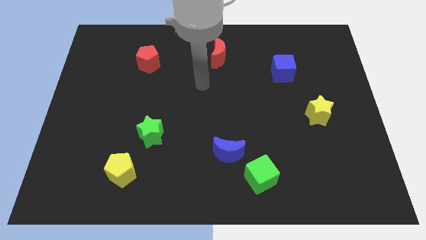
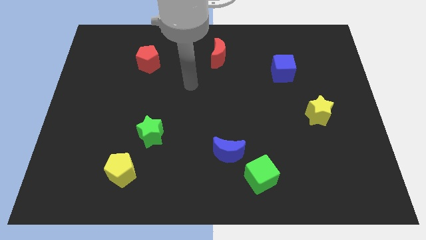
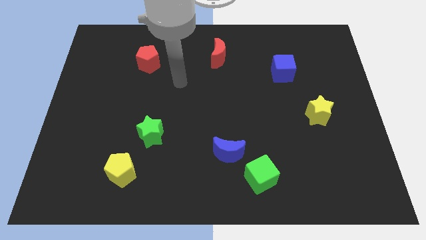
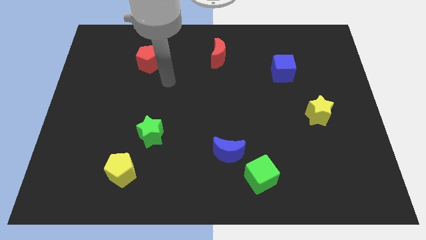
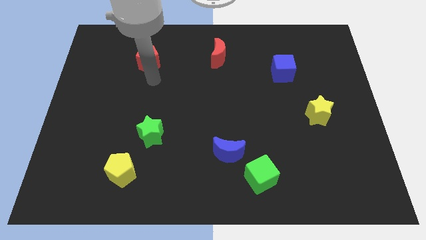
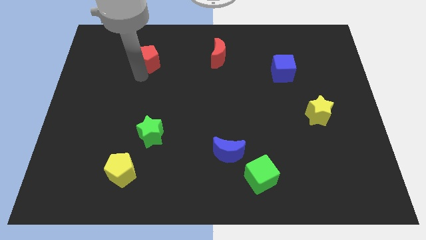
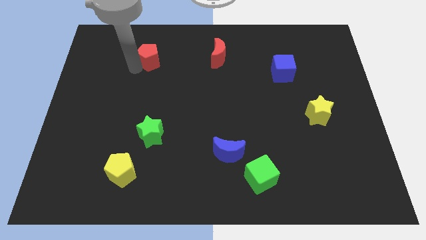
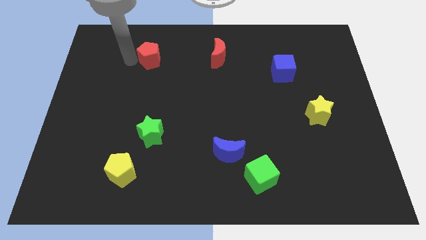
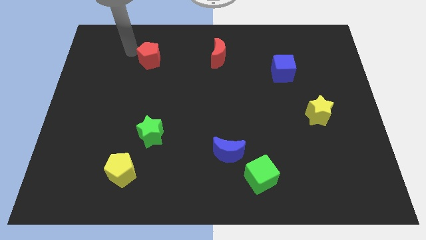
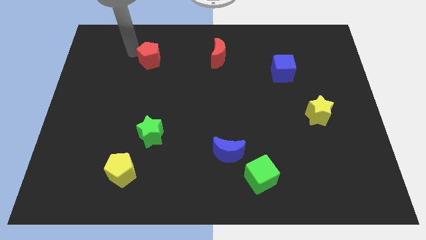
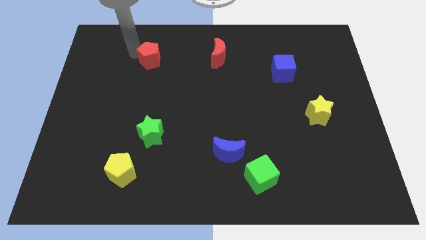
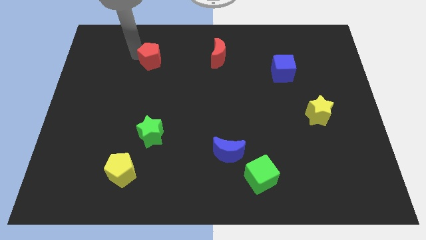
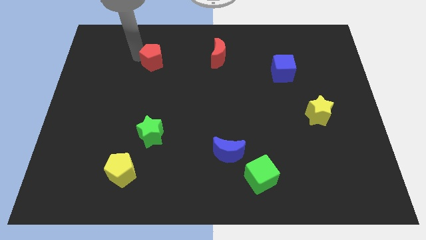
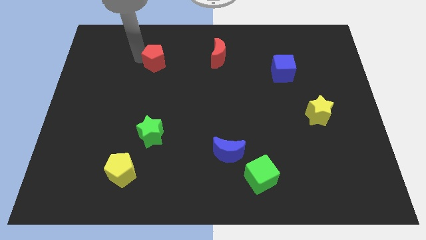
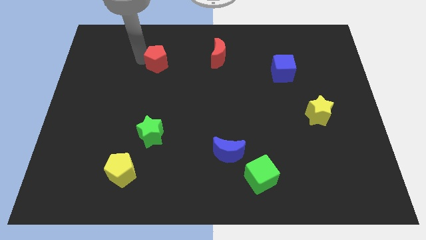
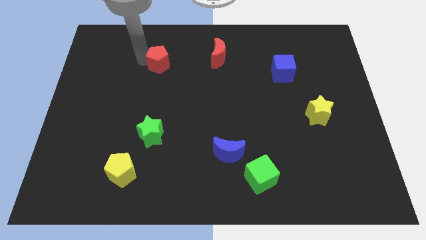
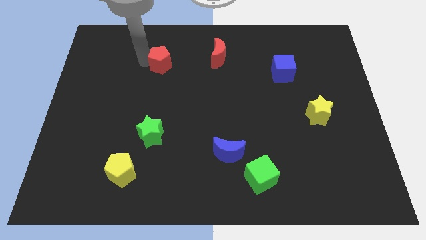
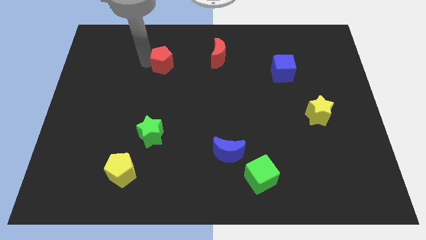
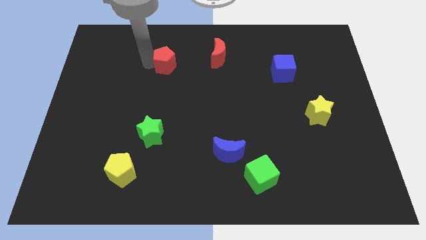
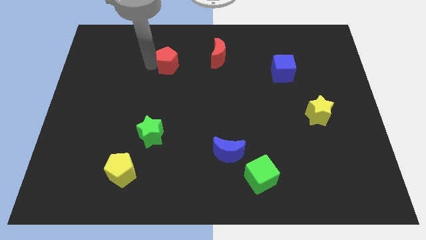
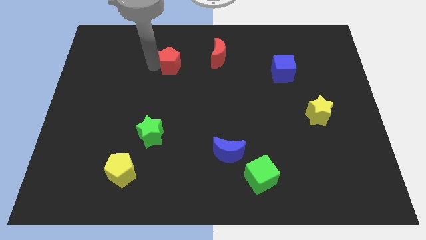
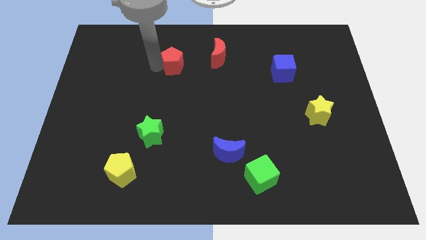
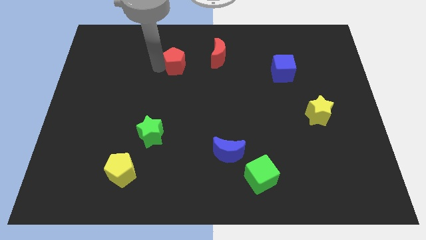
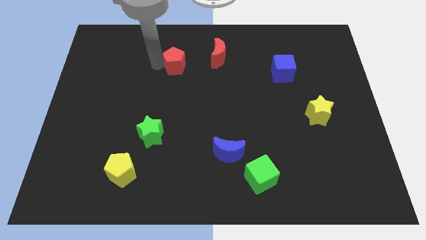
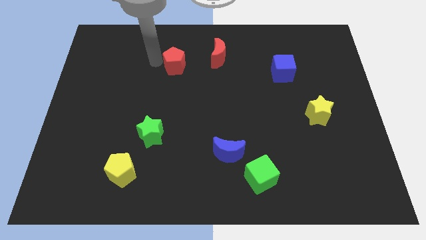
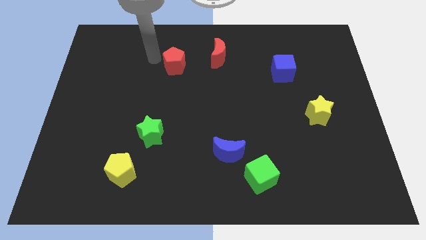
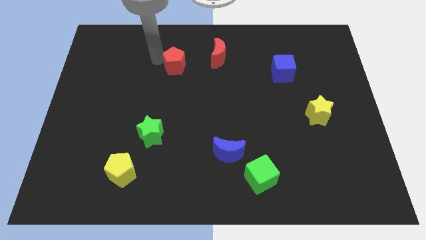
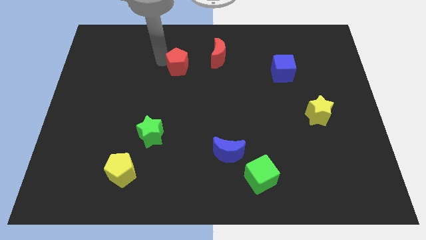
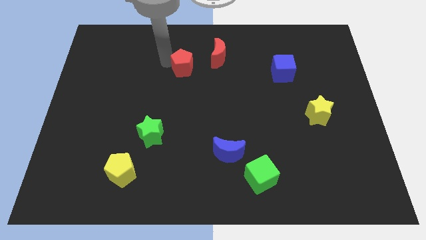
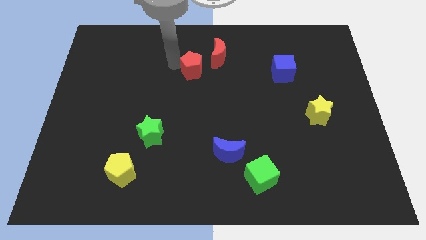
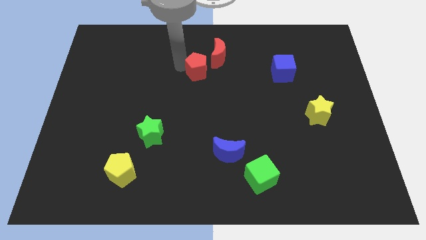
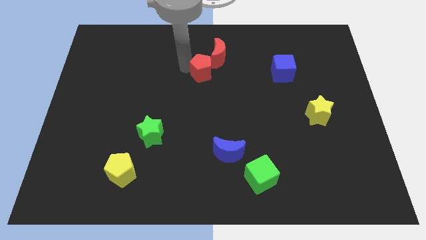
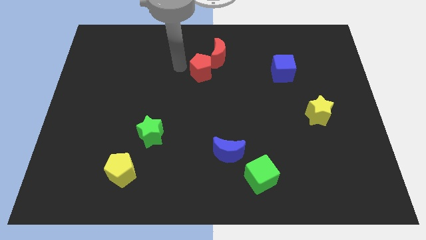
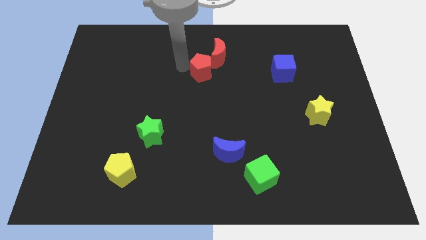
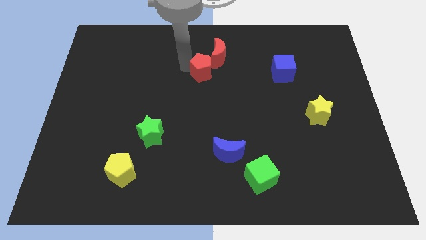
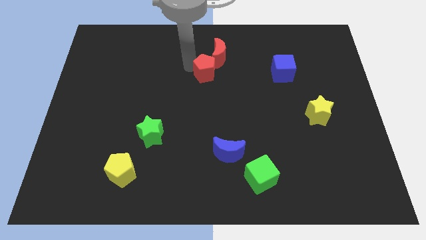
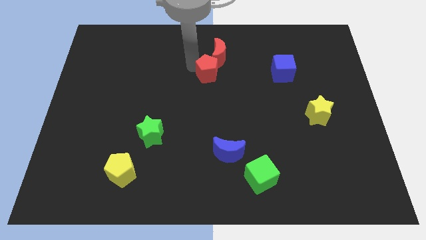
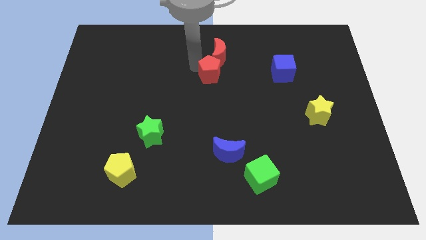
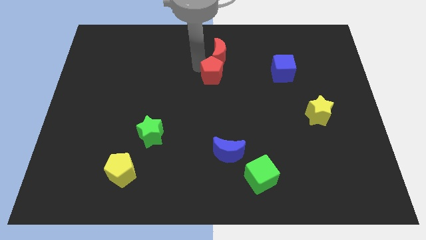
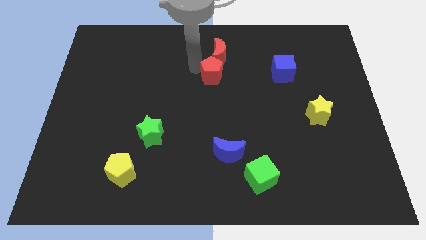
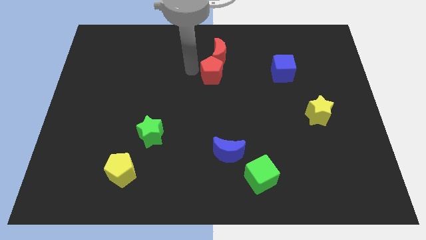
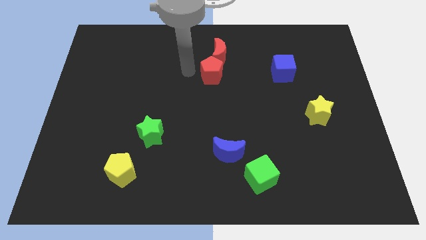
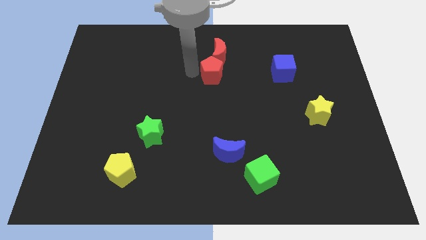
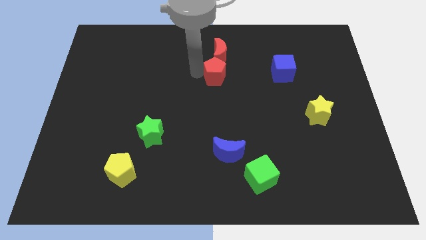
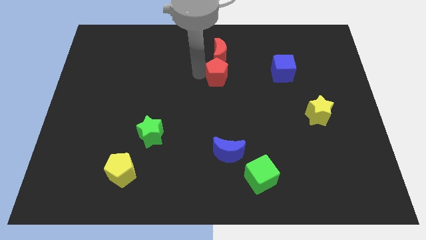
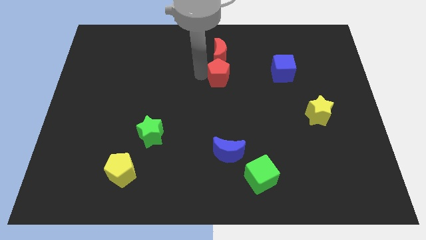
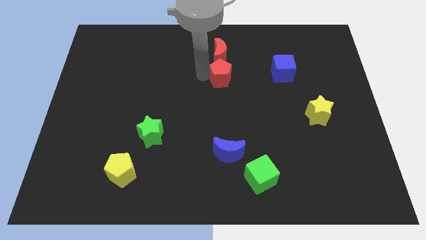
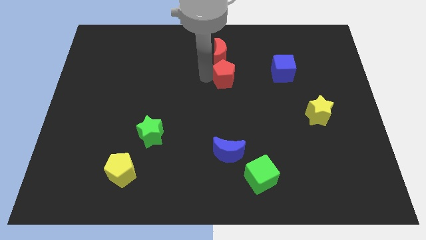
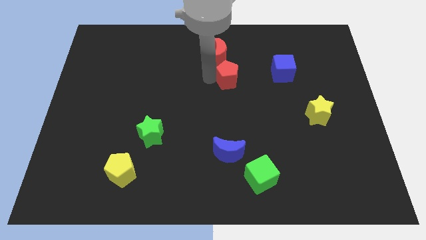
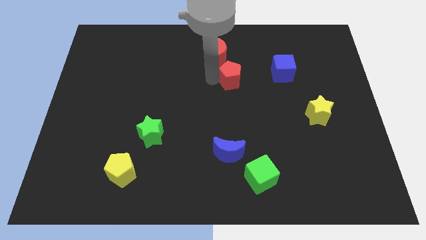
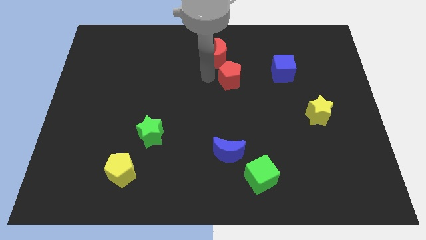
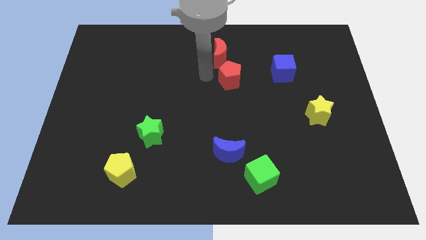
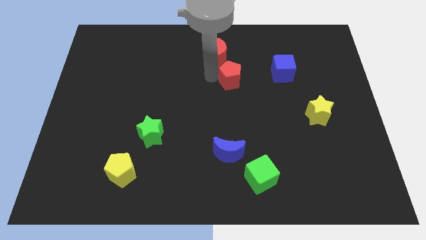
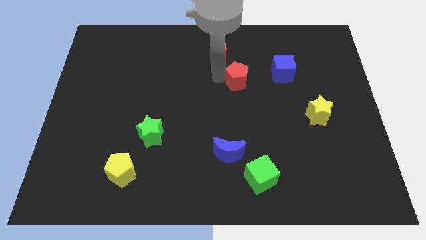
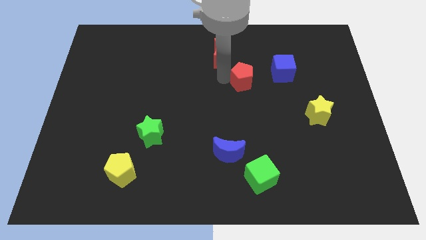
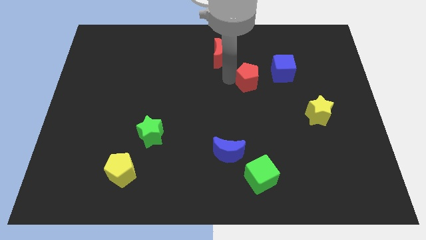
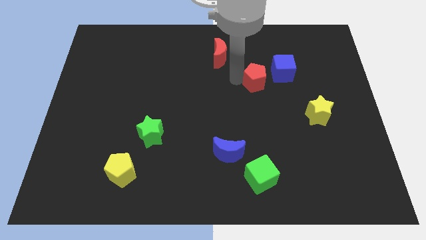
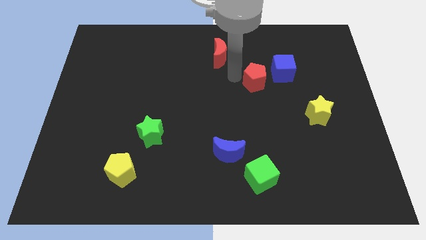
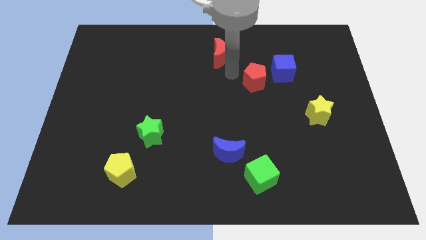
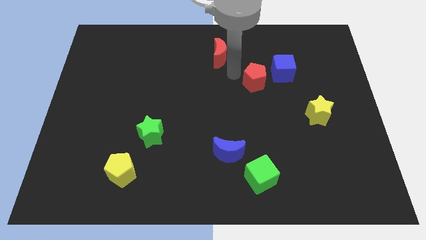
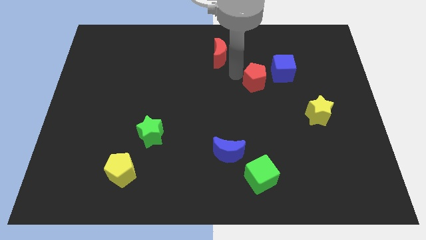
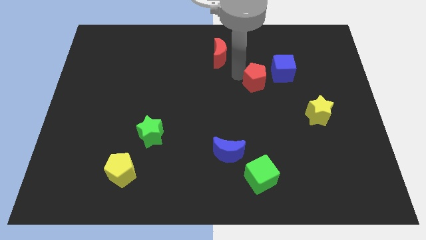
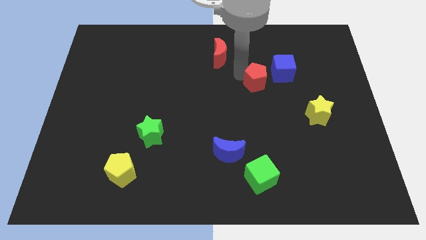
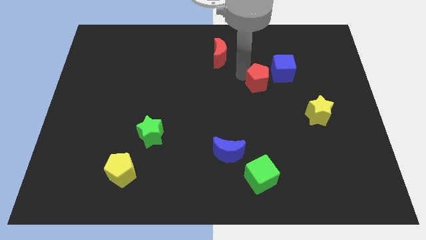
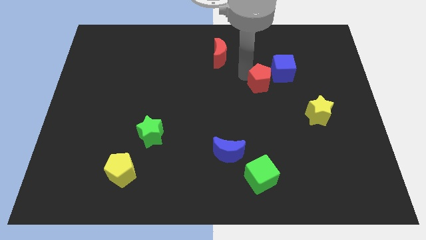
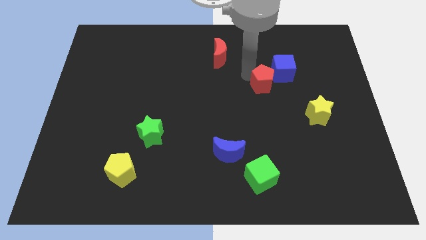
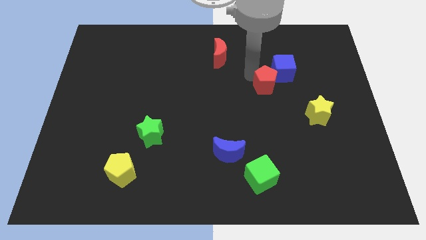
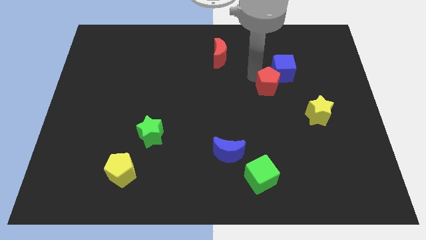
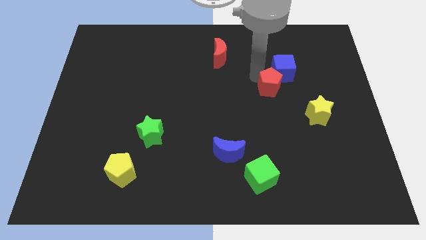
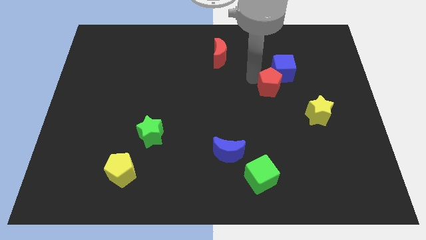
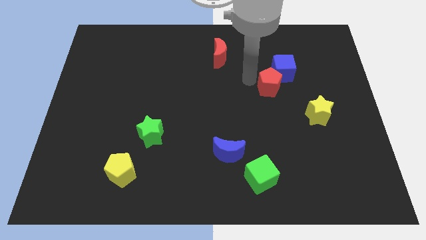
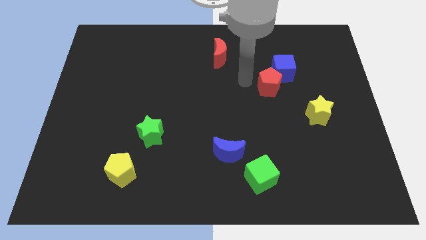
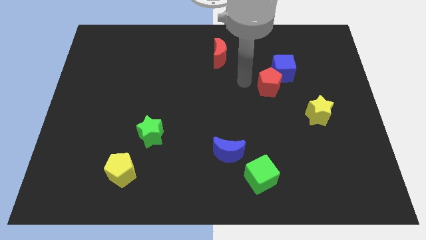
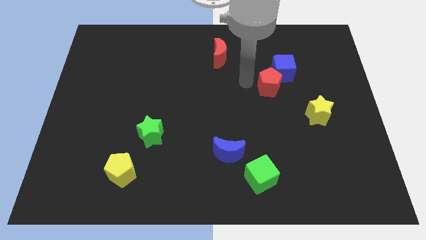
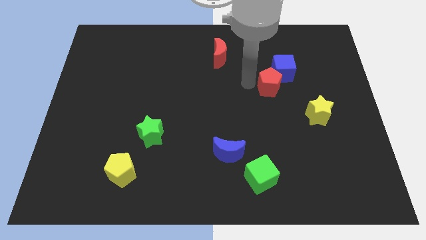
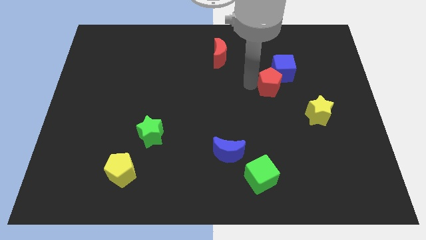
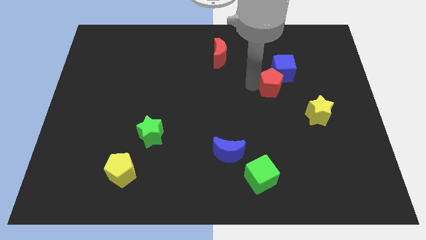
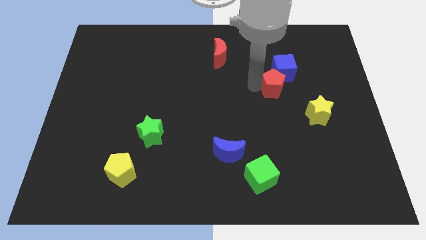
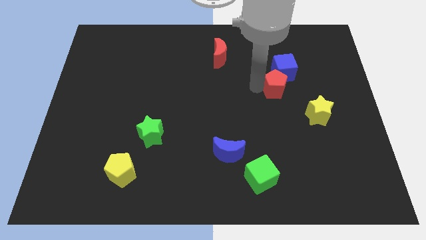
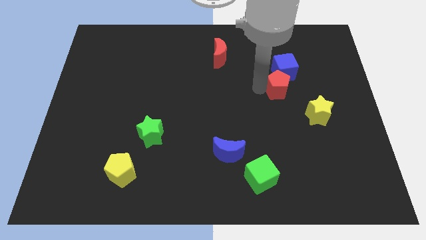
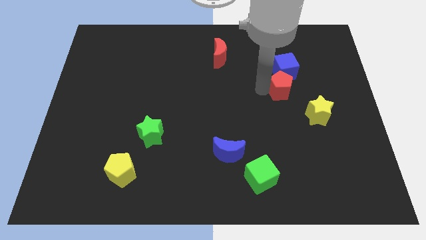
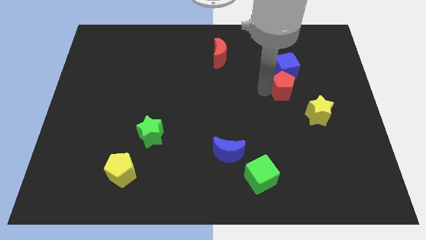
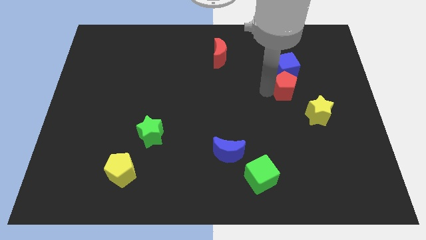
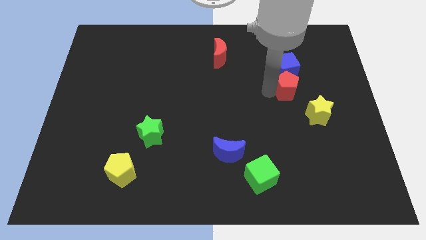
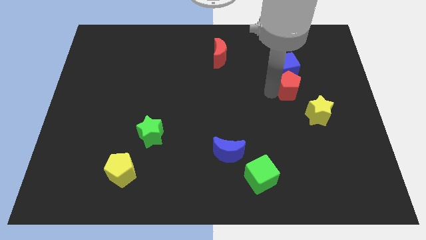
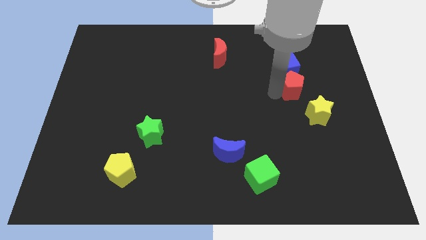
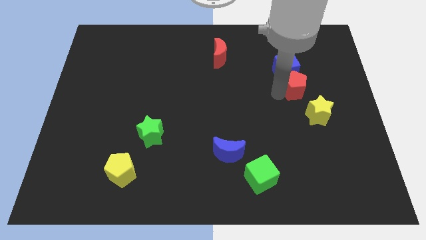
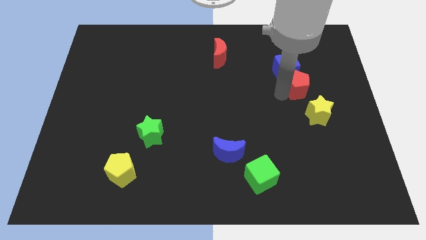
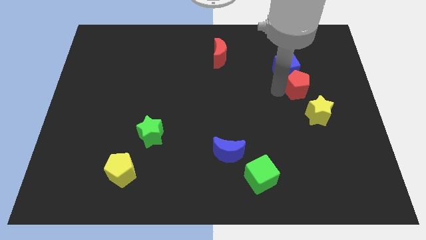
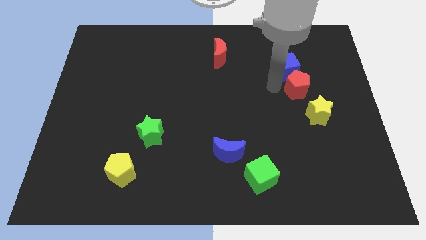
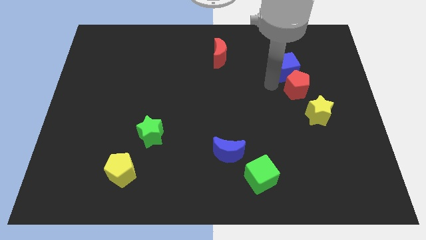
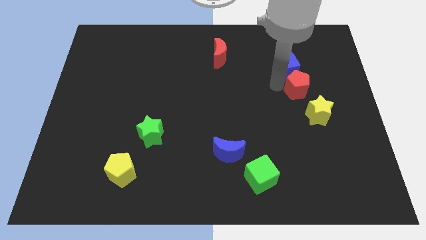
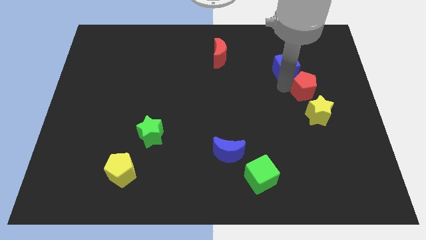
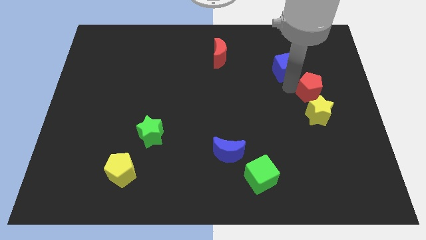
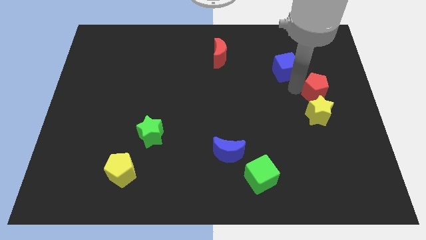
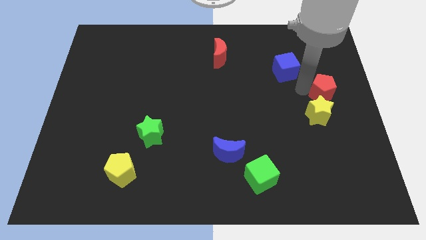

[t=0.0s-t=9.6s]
move the red pentagon to the right side
